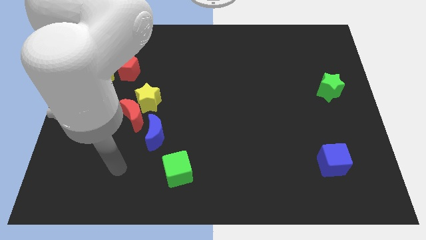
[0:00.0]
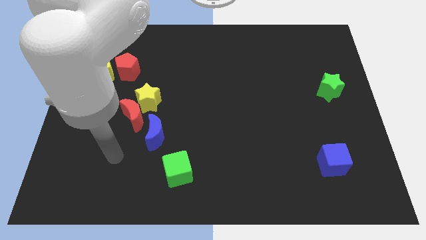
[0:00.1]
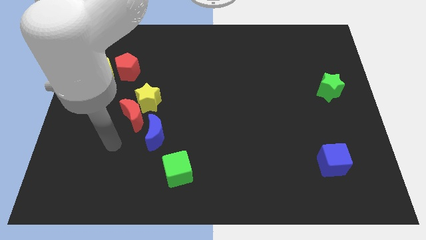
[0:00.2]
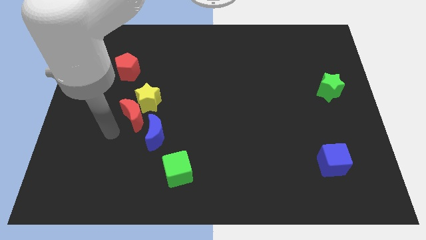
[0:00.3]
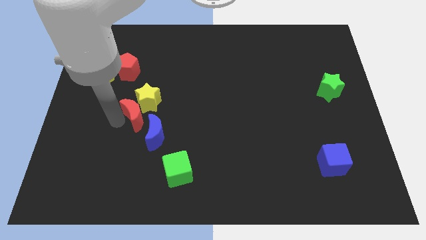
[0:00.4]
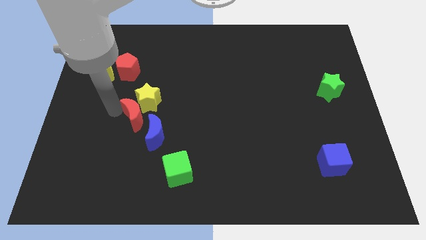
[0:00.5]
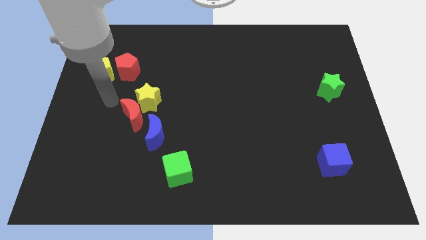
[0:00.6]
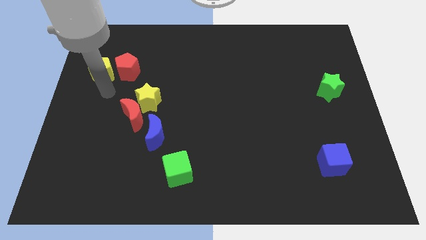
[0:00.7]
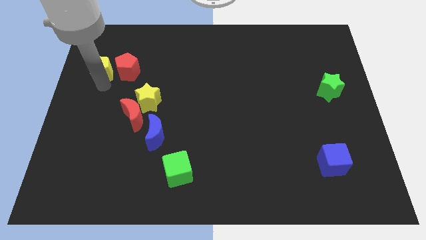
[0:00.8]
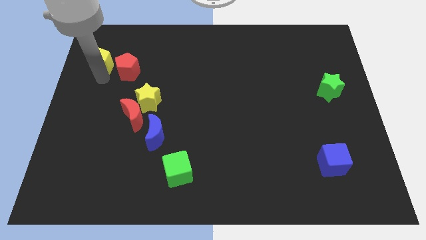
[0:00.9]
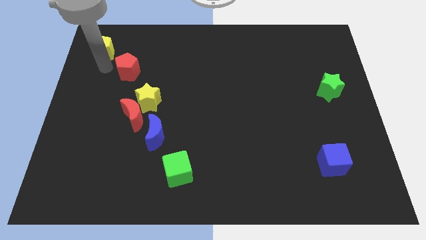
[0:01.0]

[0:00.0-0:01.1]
move the red pentagon away from the yellow pentagon

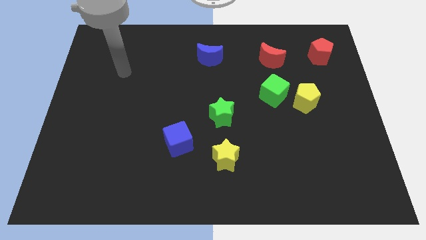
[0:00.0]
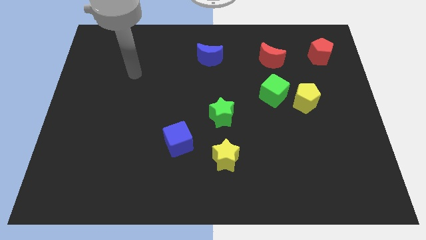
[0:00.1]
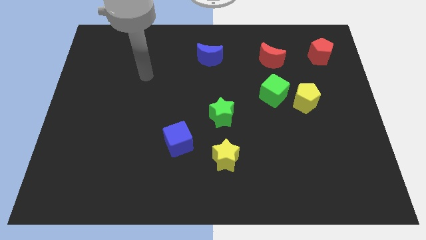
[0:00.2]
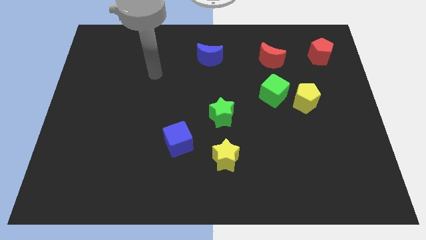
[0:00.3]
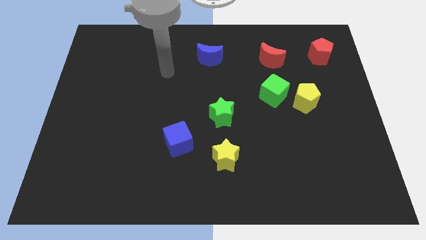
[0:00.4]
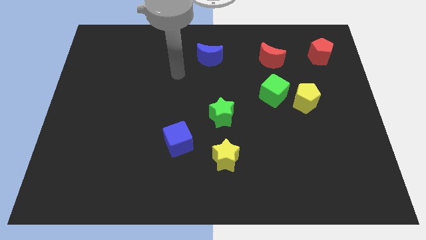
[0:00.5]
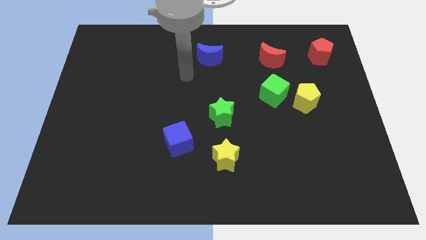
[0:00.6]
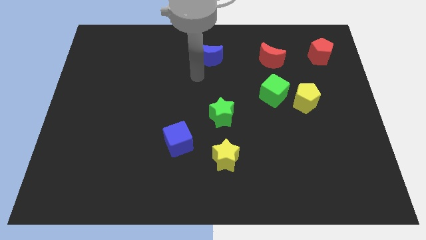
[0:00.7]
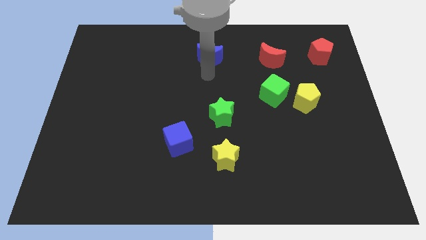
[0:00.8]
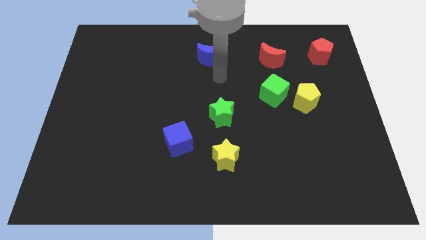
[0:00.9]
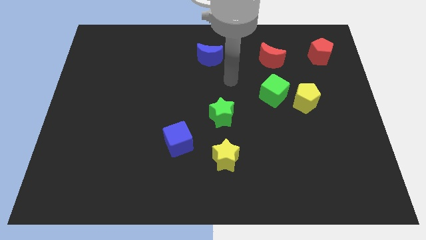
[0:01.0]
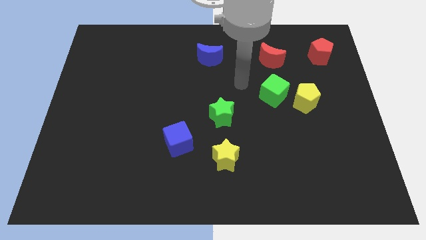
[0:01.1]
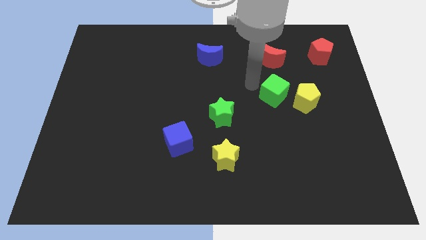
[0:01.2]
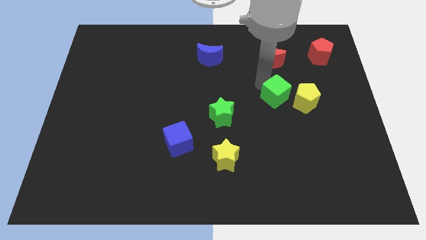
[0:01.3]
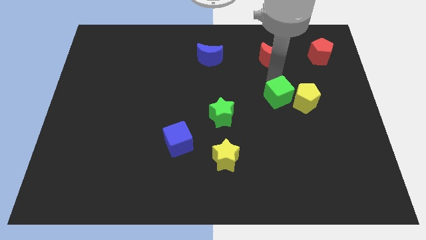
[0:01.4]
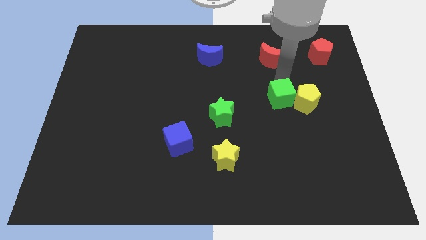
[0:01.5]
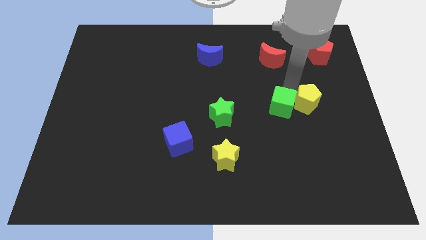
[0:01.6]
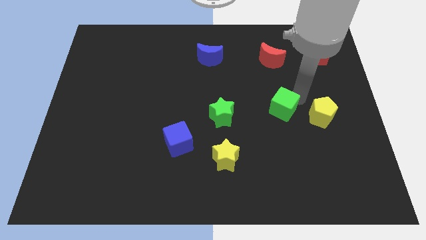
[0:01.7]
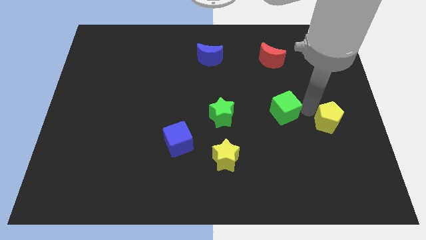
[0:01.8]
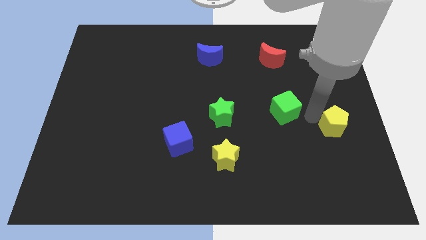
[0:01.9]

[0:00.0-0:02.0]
separate the green cube from the yellow pentagon

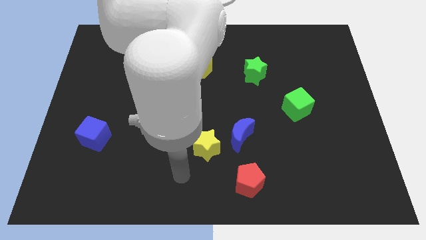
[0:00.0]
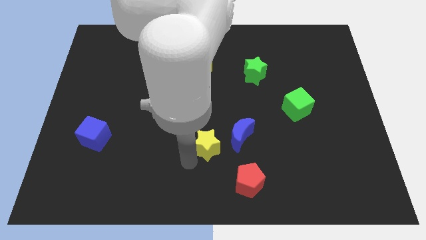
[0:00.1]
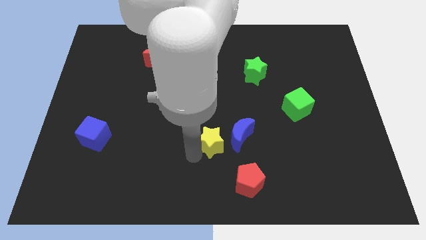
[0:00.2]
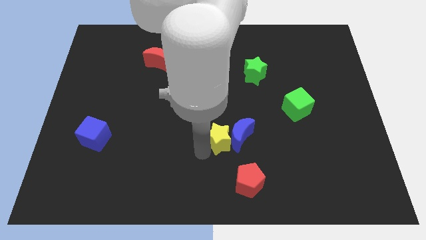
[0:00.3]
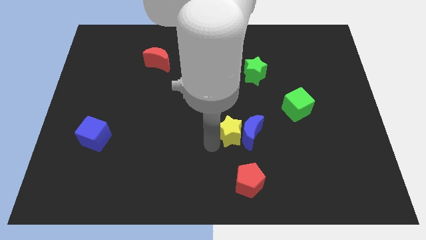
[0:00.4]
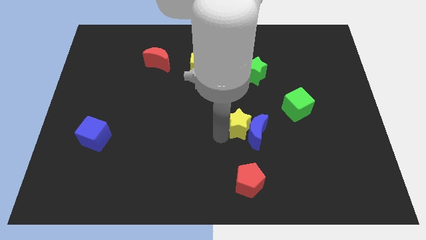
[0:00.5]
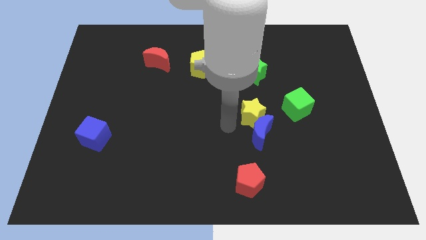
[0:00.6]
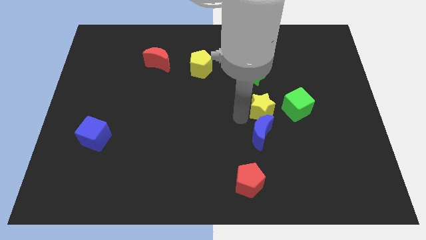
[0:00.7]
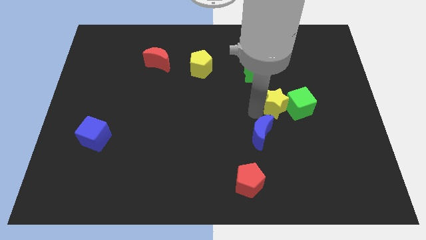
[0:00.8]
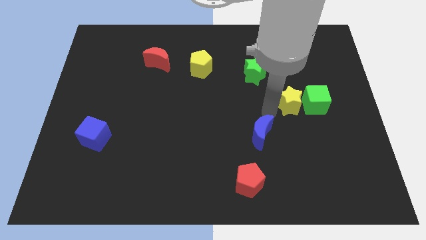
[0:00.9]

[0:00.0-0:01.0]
separate the blue moon from the yellow star

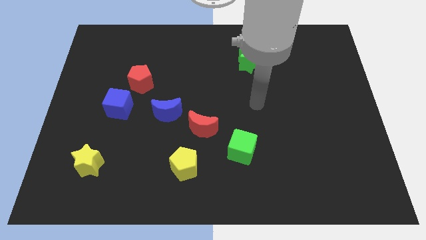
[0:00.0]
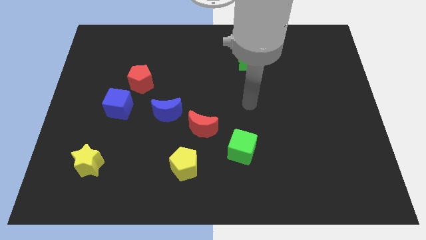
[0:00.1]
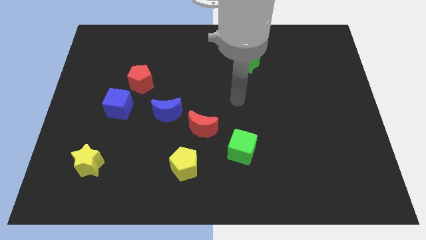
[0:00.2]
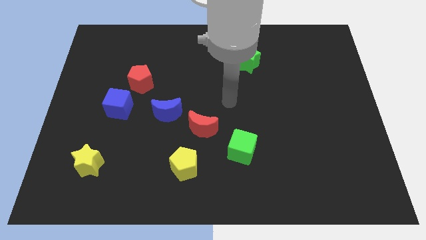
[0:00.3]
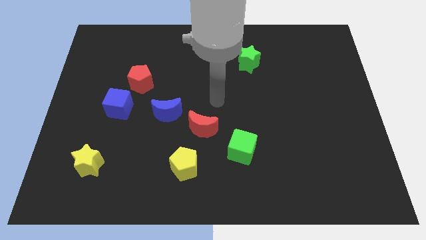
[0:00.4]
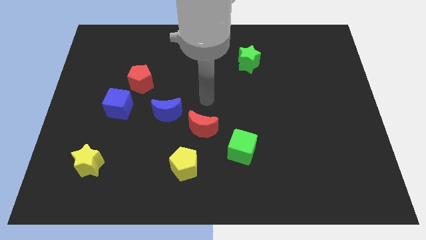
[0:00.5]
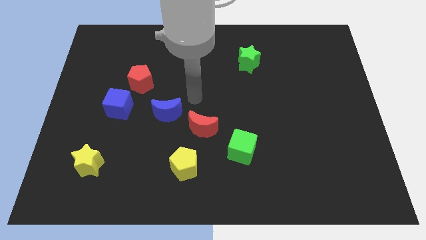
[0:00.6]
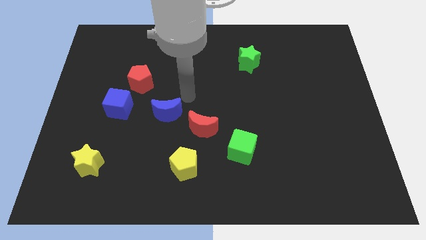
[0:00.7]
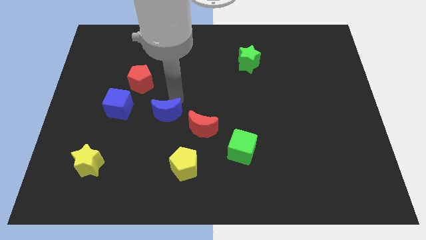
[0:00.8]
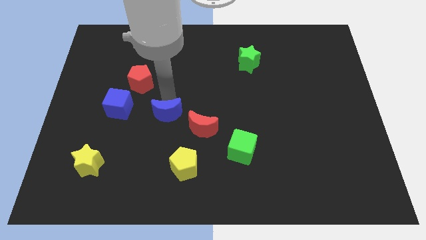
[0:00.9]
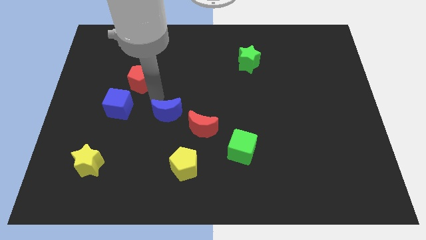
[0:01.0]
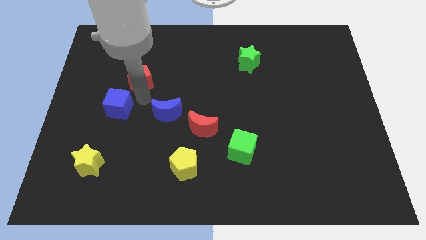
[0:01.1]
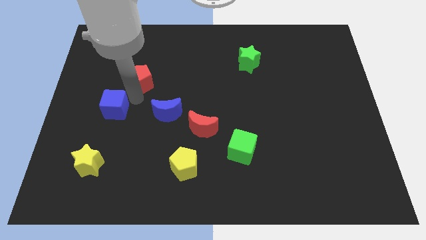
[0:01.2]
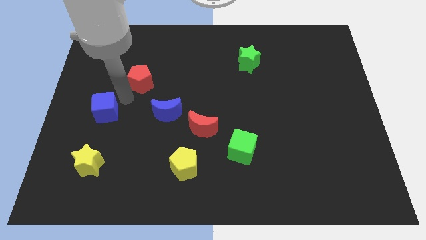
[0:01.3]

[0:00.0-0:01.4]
pull the red pentagon apart from the blue cube

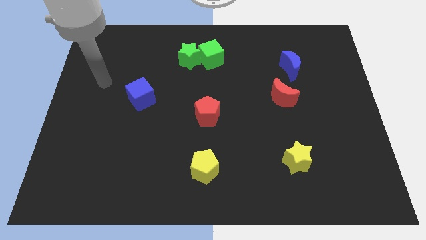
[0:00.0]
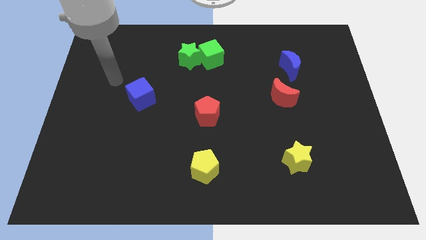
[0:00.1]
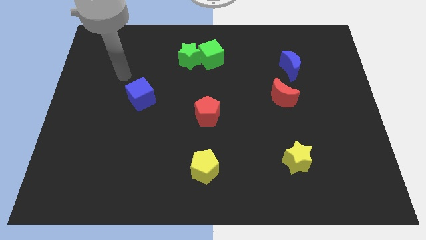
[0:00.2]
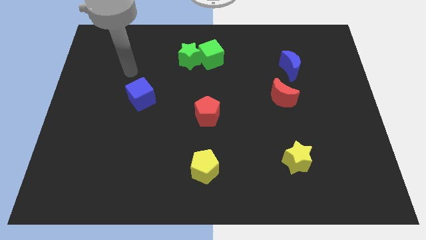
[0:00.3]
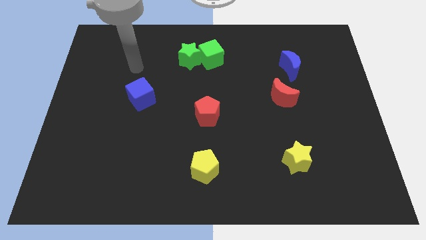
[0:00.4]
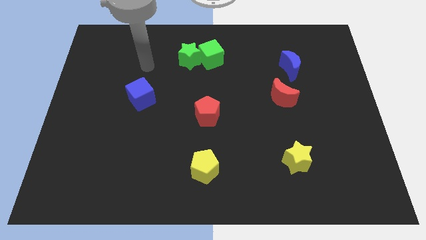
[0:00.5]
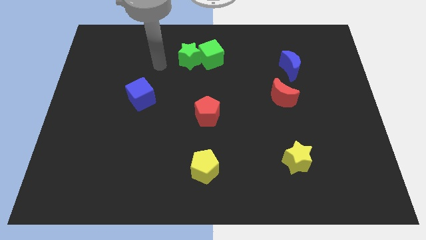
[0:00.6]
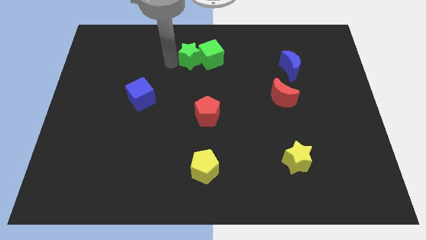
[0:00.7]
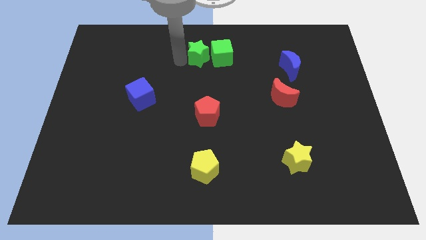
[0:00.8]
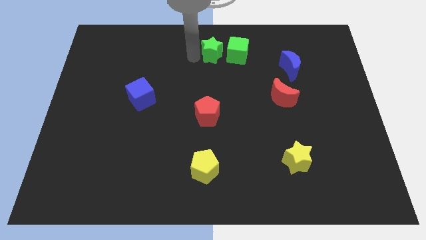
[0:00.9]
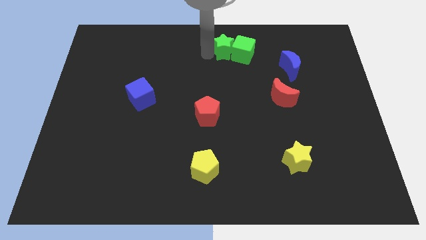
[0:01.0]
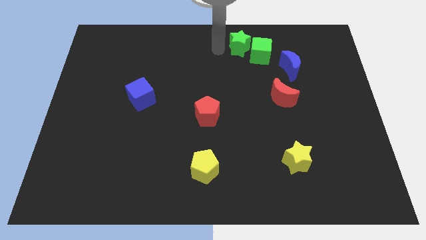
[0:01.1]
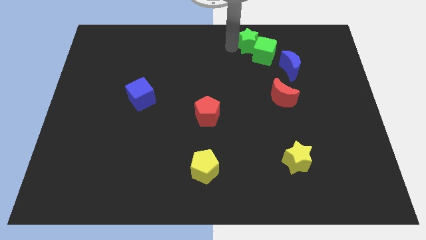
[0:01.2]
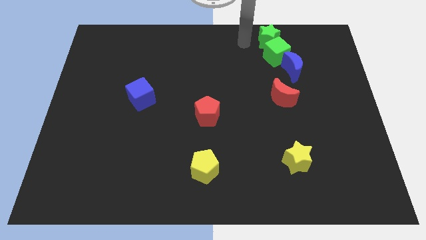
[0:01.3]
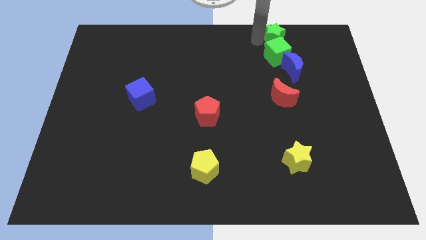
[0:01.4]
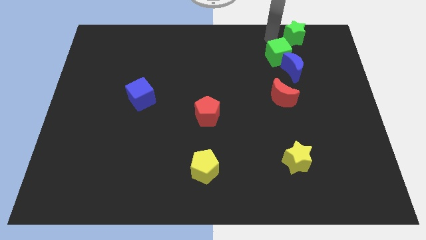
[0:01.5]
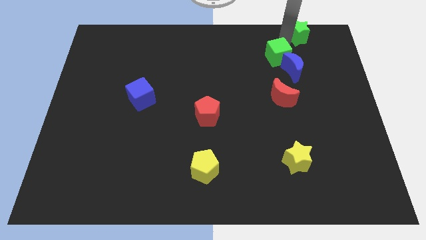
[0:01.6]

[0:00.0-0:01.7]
move the green cube away from the green star

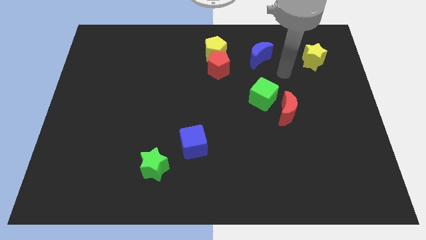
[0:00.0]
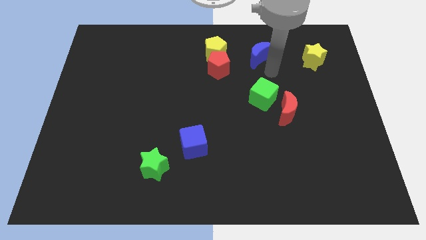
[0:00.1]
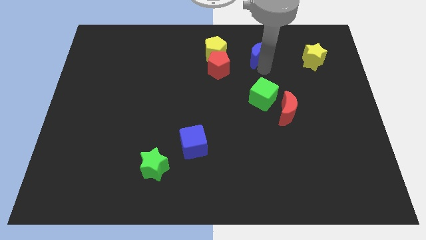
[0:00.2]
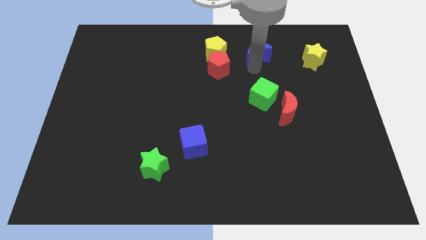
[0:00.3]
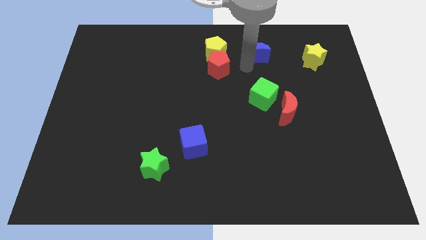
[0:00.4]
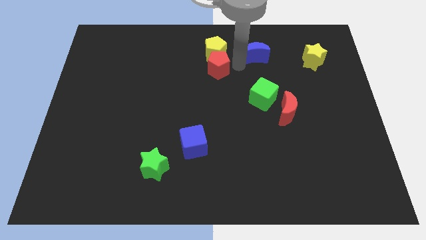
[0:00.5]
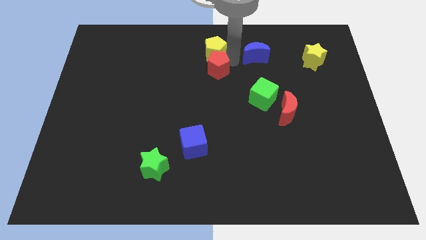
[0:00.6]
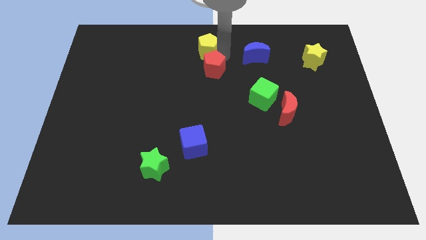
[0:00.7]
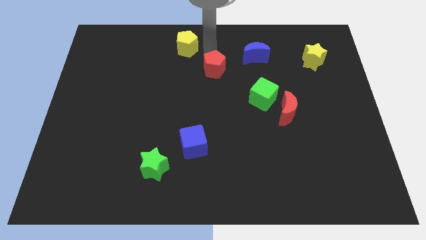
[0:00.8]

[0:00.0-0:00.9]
pull the red pentagon apart from the yellow pentagon

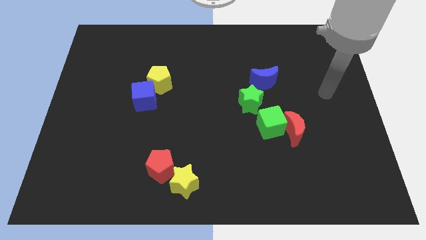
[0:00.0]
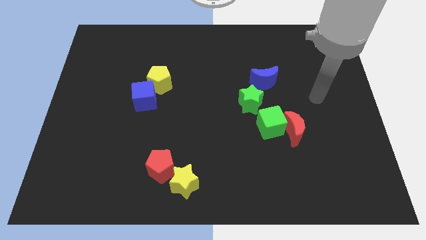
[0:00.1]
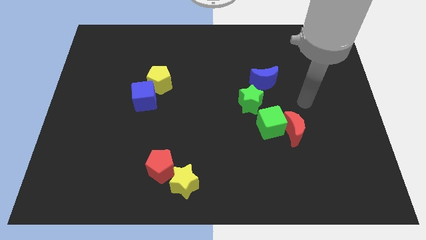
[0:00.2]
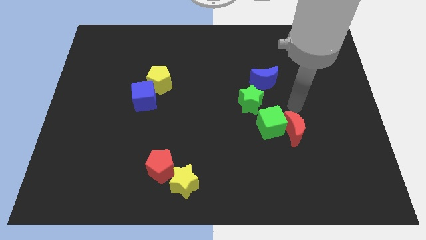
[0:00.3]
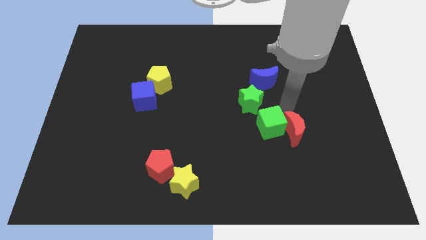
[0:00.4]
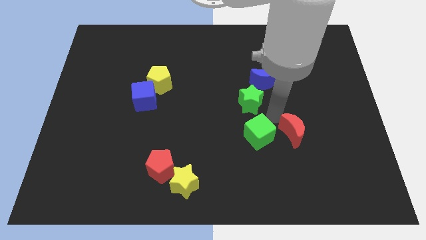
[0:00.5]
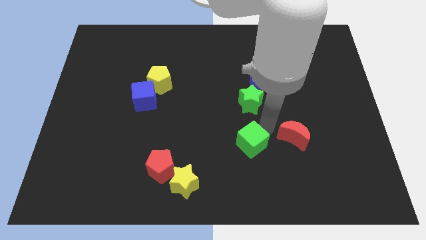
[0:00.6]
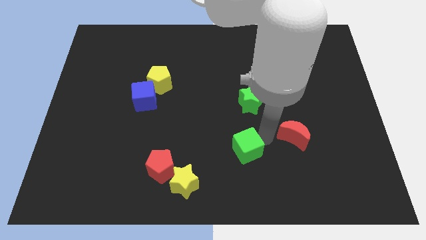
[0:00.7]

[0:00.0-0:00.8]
move the red moon away from the green cube

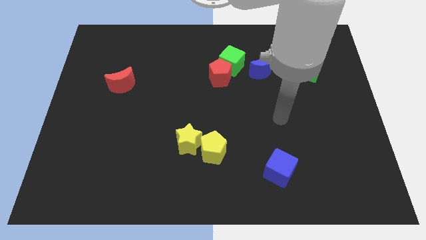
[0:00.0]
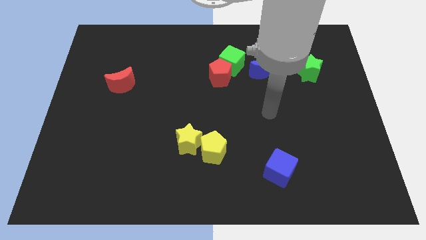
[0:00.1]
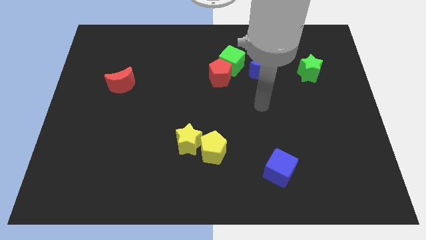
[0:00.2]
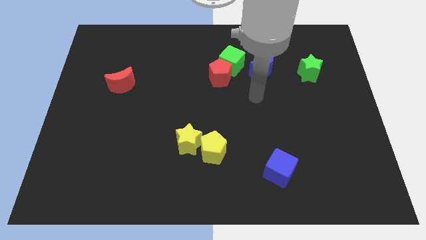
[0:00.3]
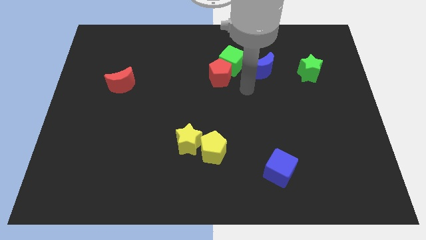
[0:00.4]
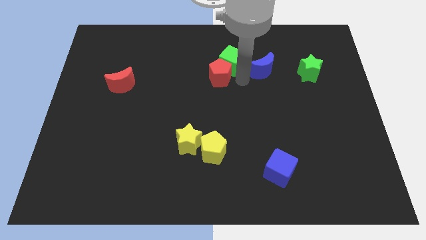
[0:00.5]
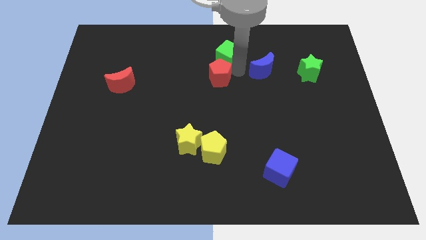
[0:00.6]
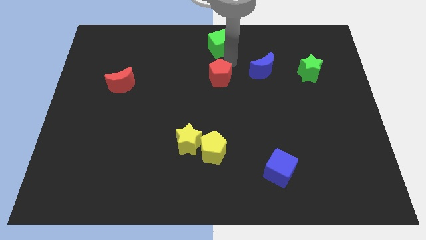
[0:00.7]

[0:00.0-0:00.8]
pull the red pentagon apart from the green cube
